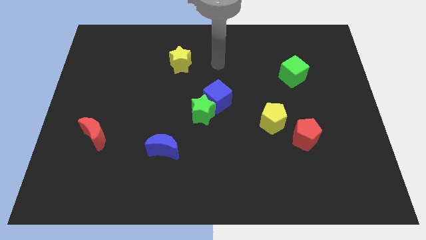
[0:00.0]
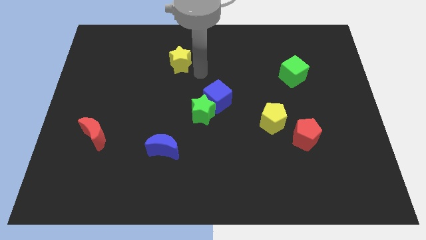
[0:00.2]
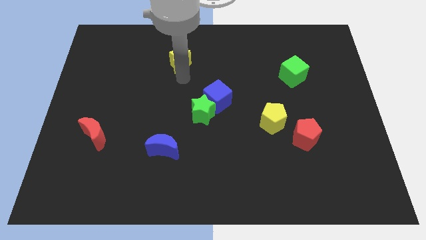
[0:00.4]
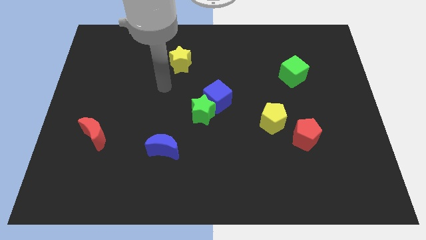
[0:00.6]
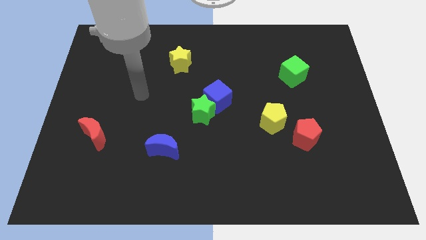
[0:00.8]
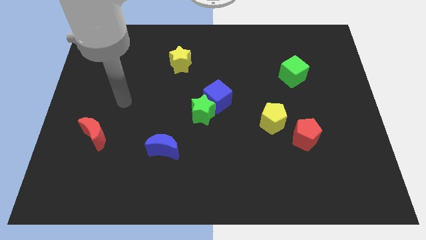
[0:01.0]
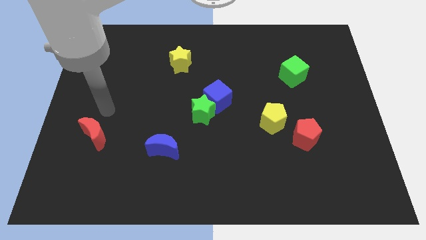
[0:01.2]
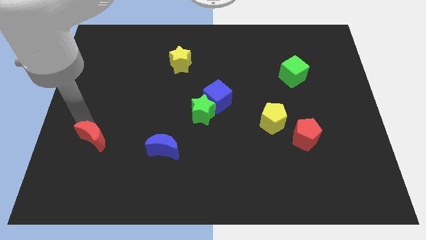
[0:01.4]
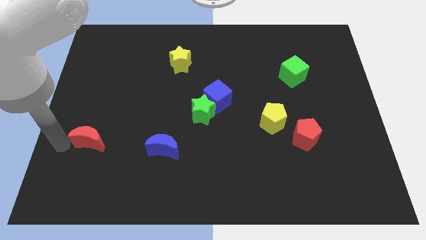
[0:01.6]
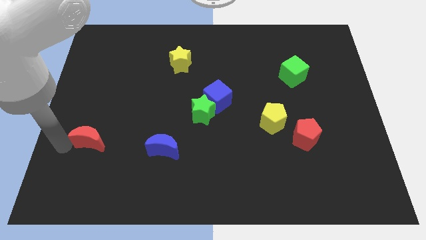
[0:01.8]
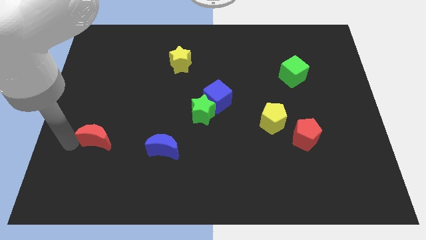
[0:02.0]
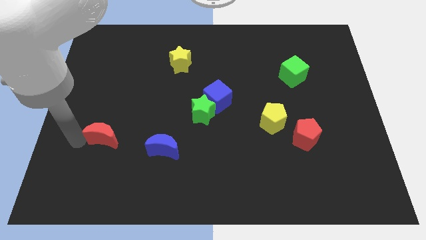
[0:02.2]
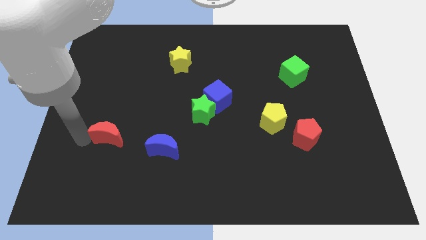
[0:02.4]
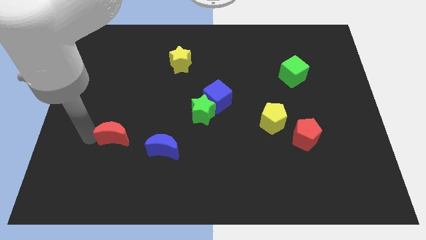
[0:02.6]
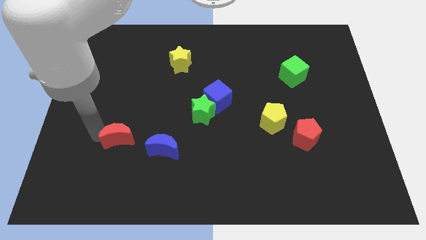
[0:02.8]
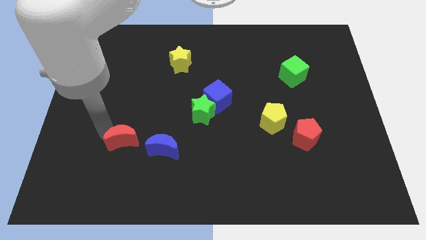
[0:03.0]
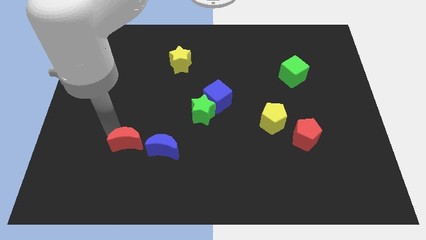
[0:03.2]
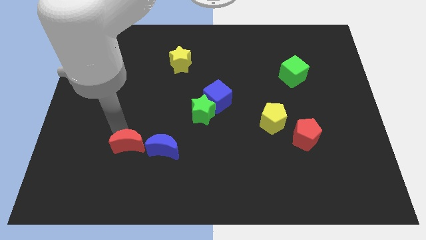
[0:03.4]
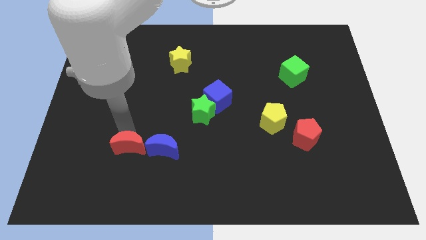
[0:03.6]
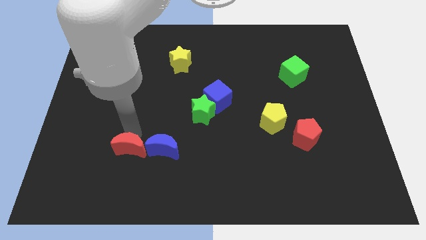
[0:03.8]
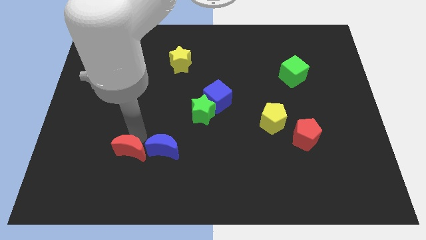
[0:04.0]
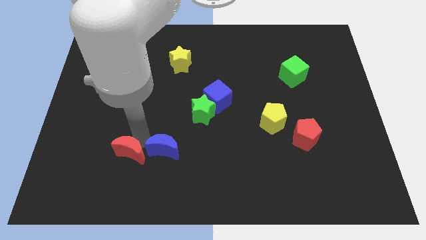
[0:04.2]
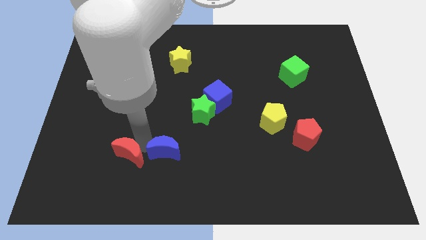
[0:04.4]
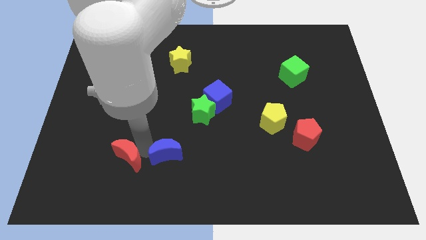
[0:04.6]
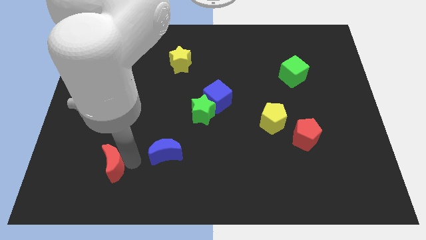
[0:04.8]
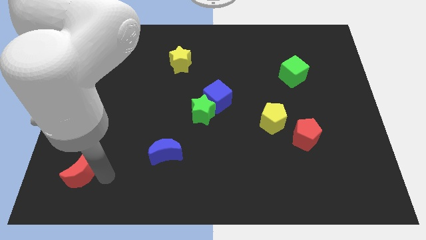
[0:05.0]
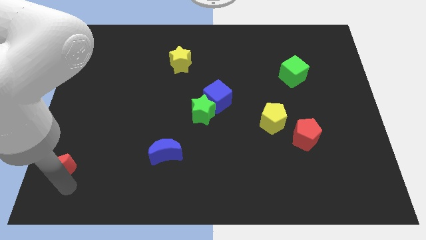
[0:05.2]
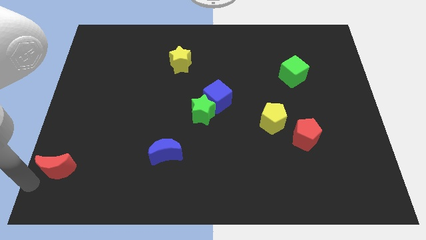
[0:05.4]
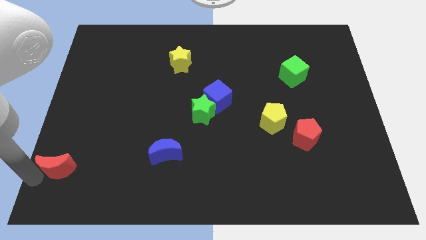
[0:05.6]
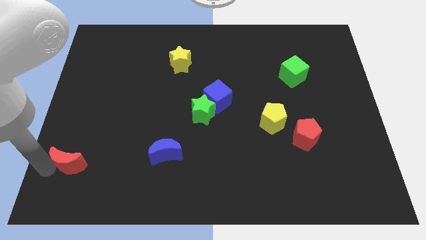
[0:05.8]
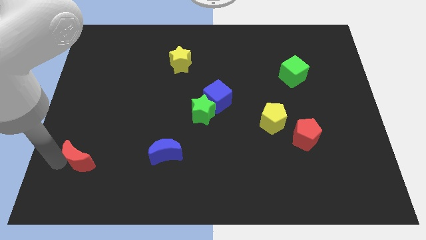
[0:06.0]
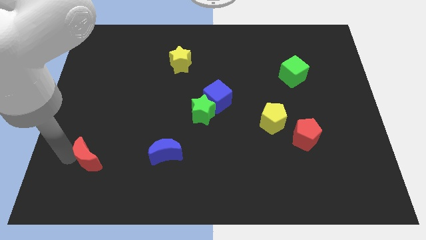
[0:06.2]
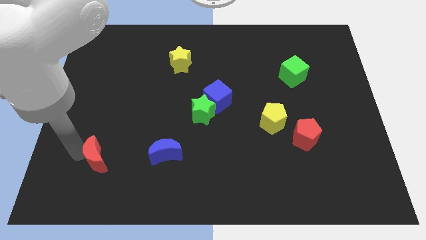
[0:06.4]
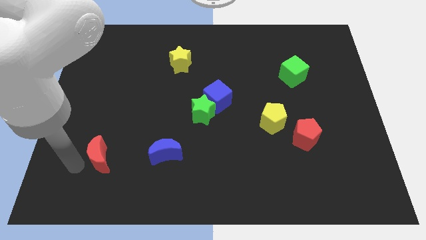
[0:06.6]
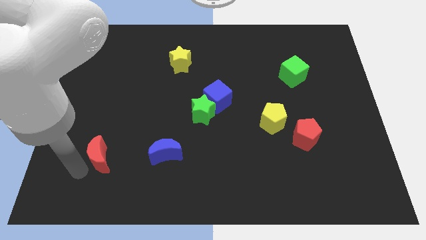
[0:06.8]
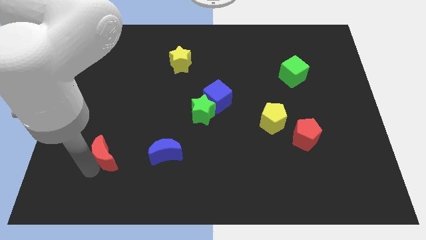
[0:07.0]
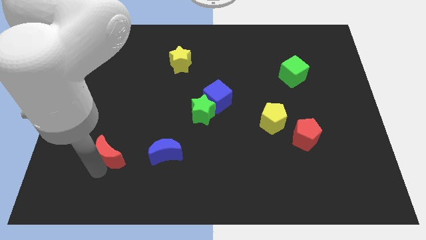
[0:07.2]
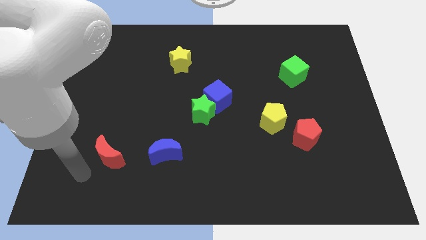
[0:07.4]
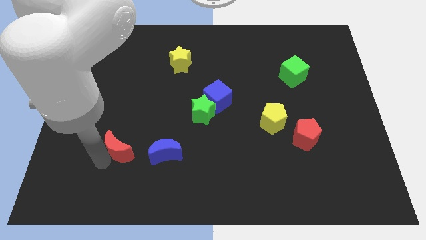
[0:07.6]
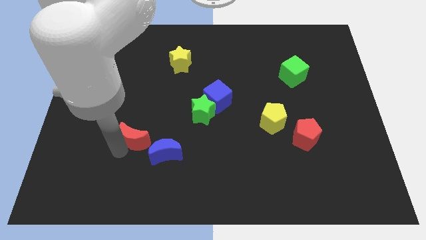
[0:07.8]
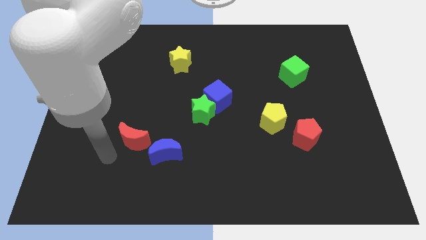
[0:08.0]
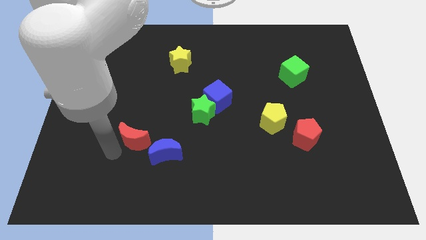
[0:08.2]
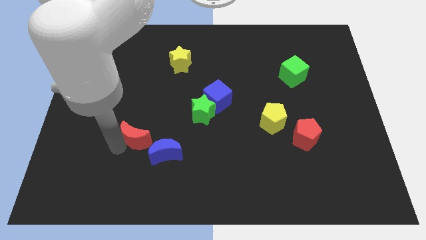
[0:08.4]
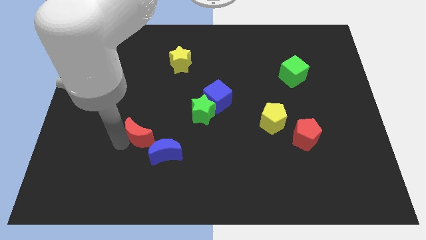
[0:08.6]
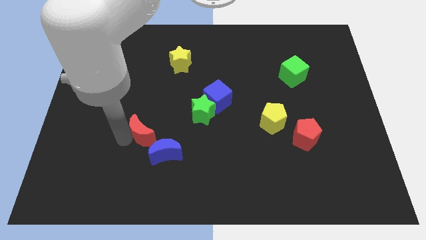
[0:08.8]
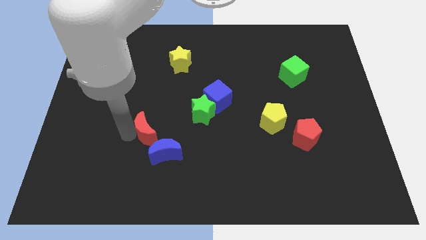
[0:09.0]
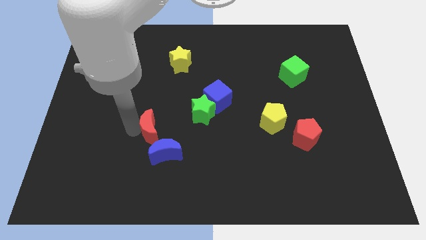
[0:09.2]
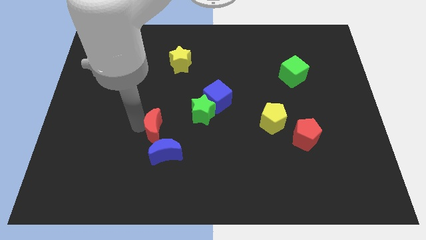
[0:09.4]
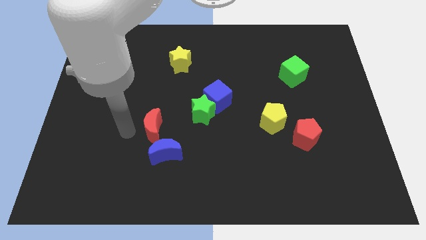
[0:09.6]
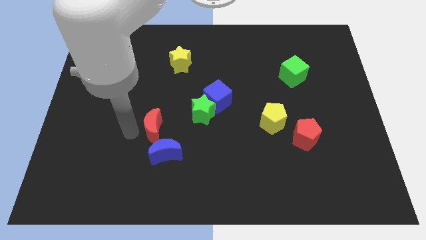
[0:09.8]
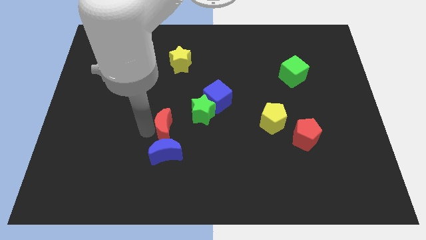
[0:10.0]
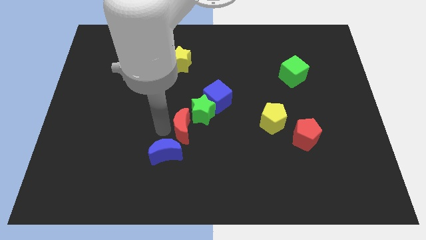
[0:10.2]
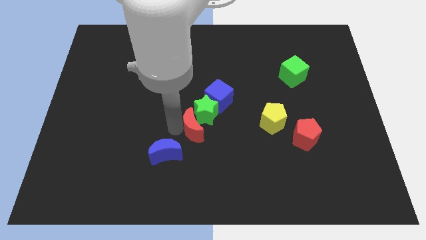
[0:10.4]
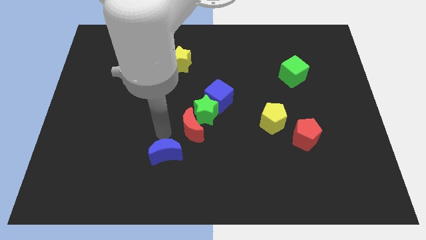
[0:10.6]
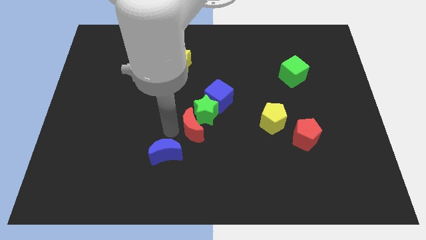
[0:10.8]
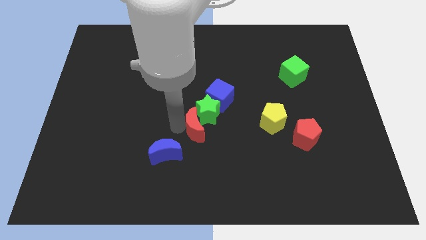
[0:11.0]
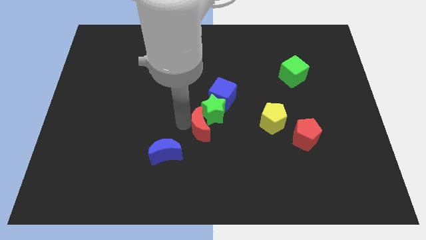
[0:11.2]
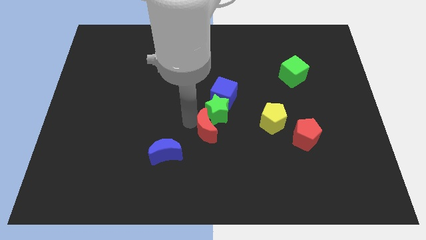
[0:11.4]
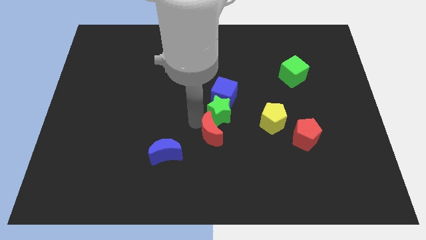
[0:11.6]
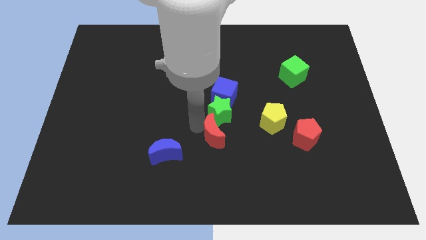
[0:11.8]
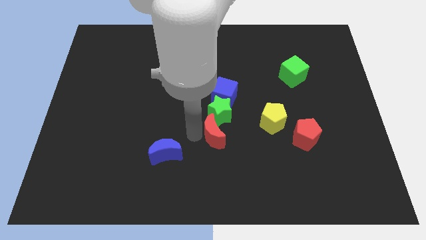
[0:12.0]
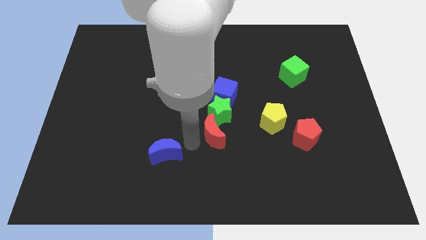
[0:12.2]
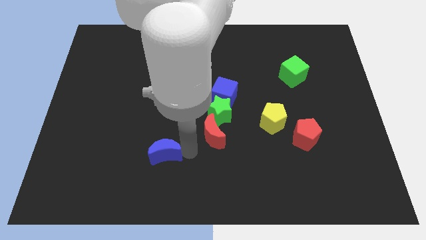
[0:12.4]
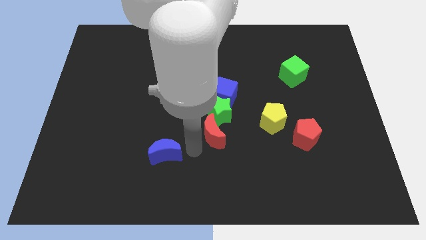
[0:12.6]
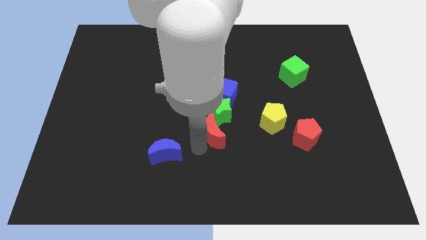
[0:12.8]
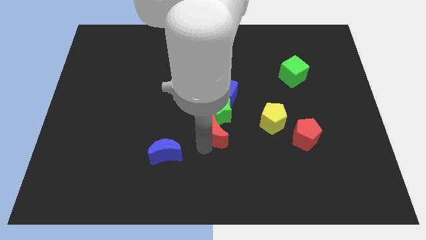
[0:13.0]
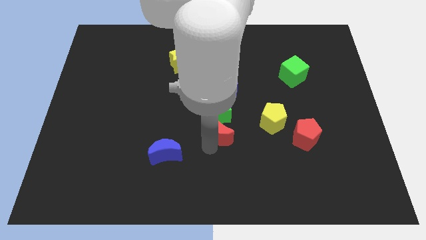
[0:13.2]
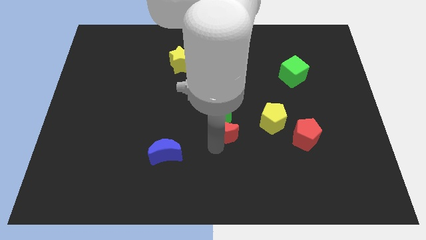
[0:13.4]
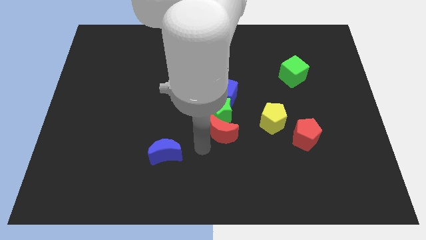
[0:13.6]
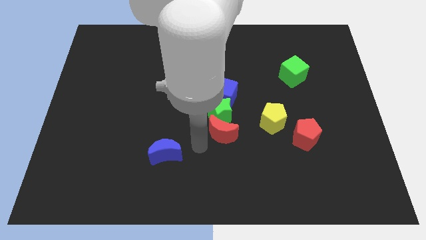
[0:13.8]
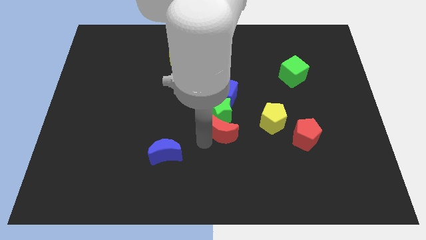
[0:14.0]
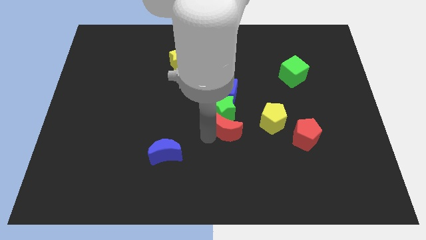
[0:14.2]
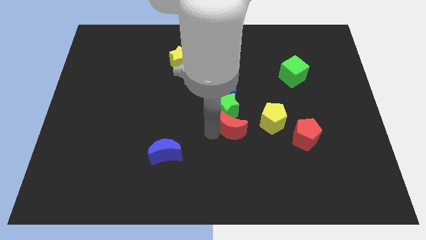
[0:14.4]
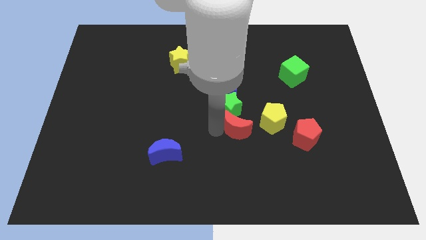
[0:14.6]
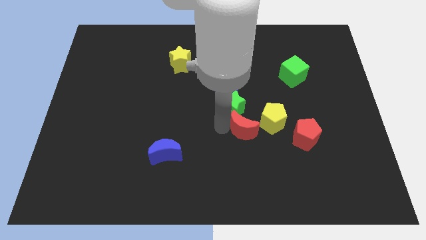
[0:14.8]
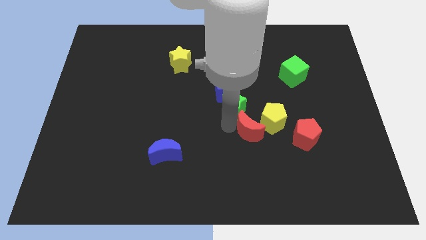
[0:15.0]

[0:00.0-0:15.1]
move the red moon to the yellow pentagon
